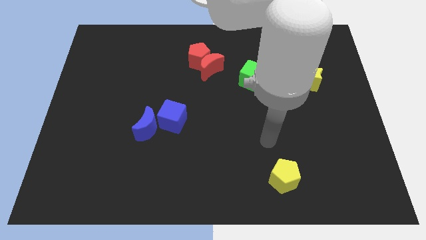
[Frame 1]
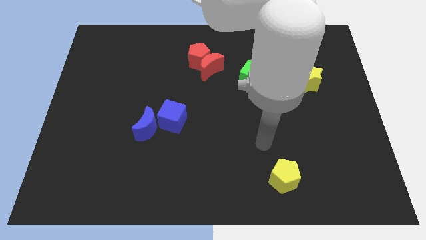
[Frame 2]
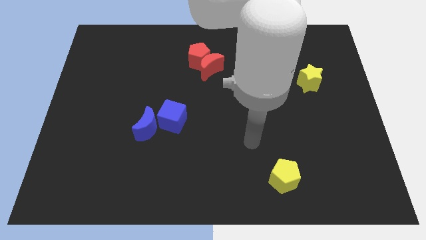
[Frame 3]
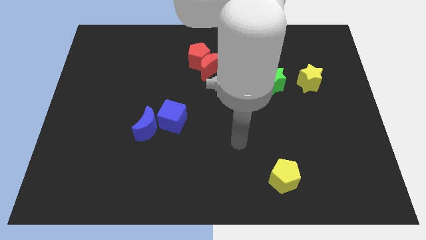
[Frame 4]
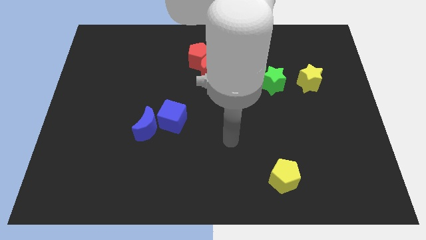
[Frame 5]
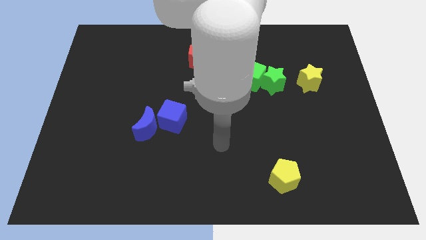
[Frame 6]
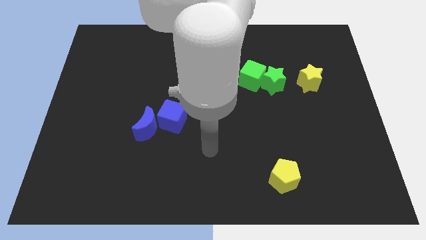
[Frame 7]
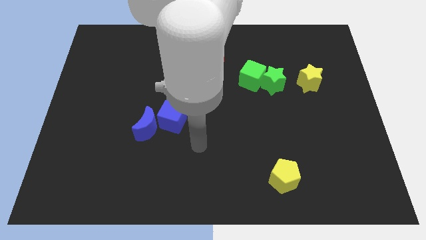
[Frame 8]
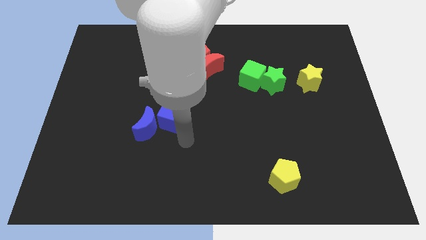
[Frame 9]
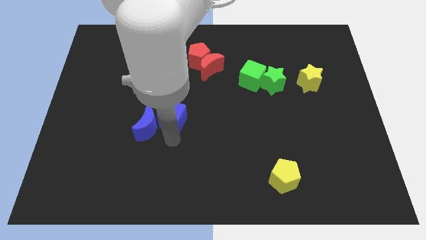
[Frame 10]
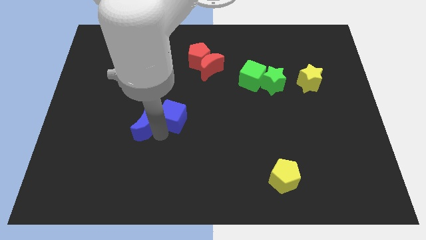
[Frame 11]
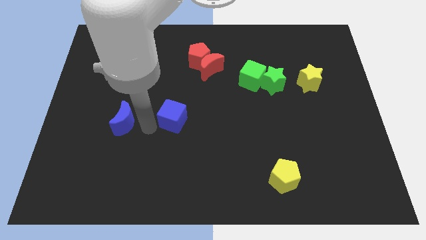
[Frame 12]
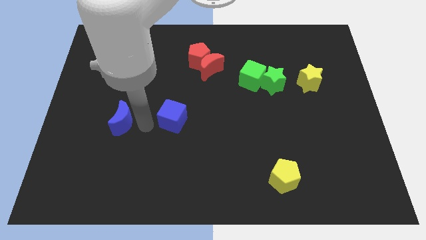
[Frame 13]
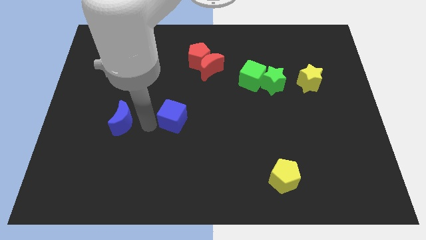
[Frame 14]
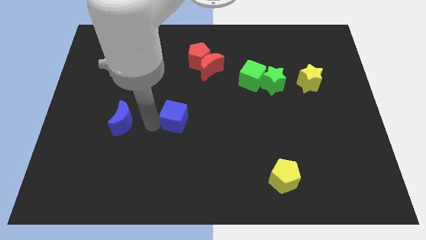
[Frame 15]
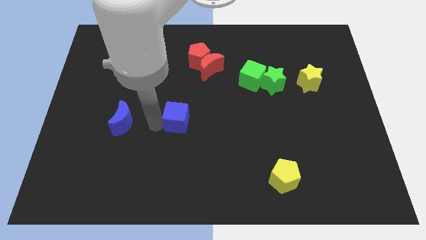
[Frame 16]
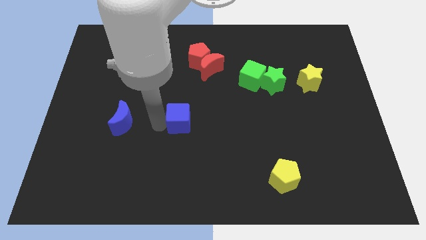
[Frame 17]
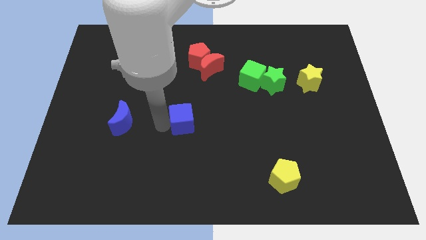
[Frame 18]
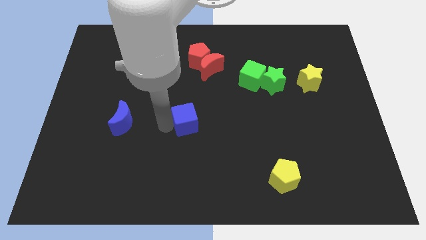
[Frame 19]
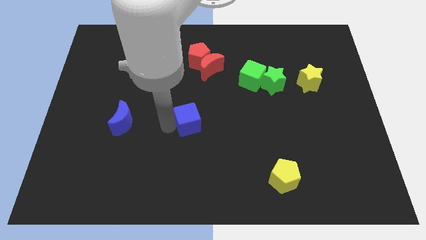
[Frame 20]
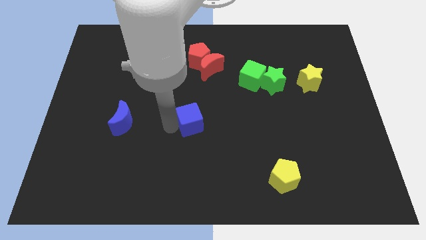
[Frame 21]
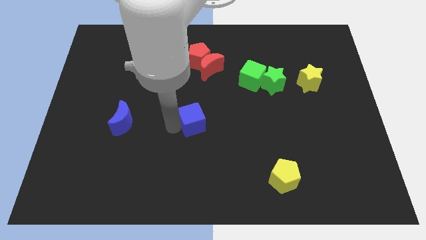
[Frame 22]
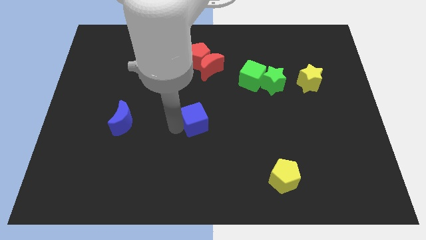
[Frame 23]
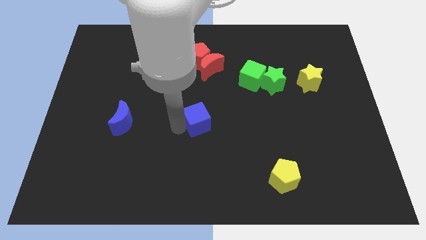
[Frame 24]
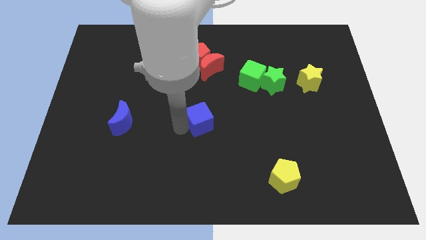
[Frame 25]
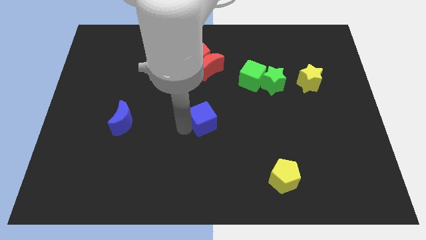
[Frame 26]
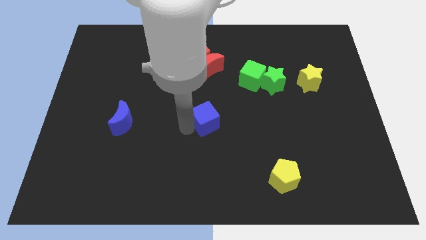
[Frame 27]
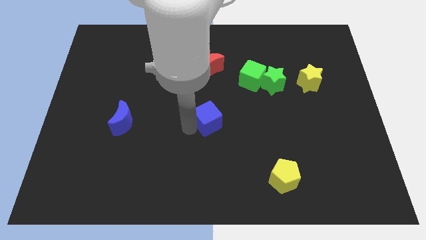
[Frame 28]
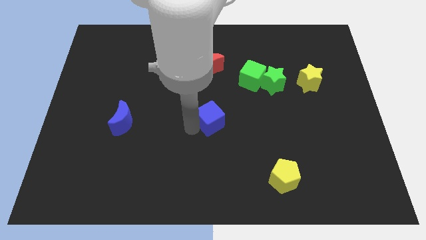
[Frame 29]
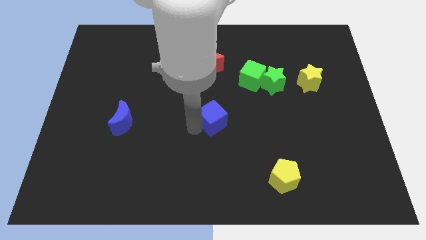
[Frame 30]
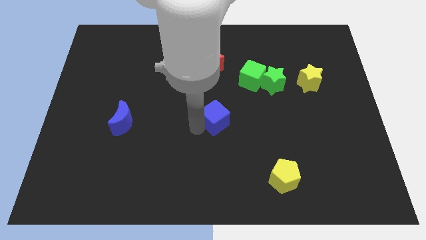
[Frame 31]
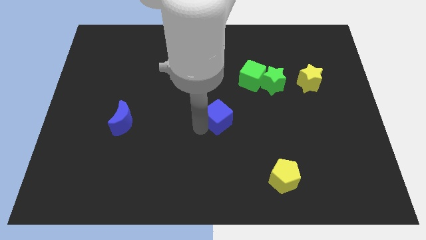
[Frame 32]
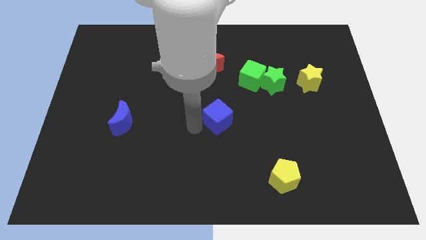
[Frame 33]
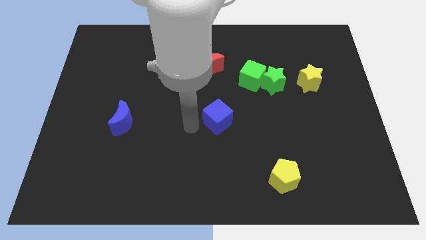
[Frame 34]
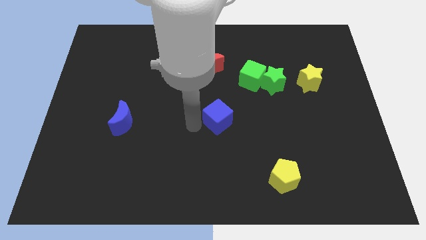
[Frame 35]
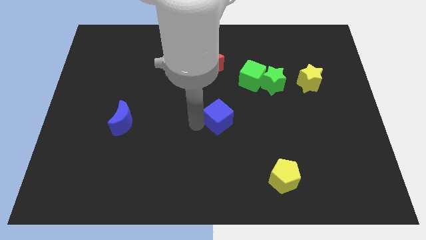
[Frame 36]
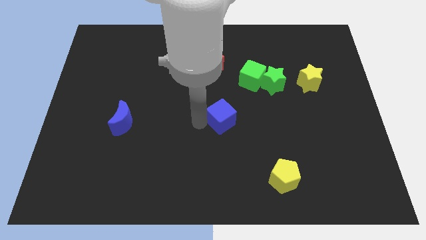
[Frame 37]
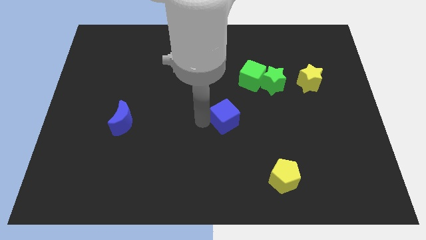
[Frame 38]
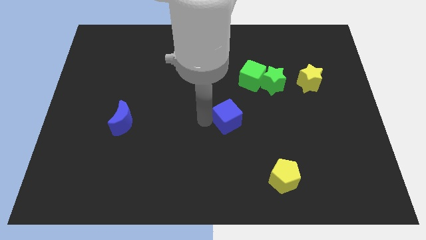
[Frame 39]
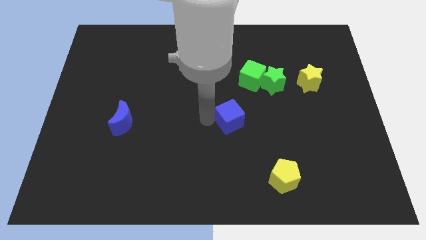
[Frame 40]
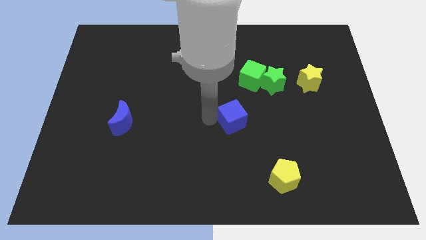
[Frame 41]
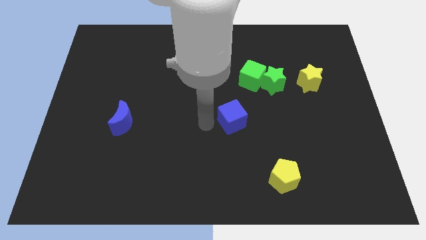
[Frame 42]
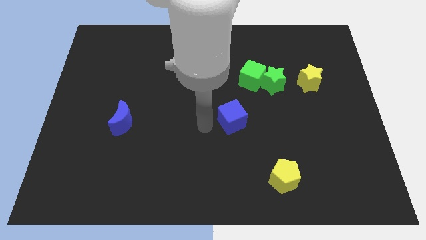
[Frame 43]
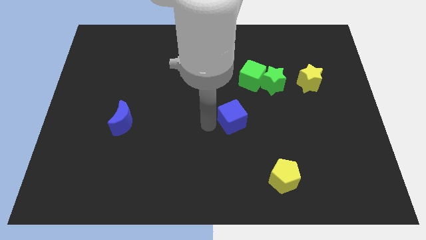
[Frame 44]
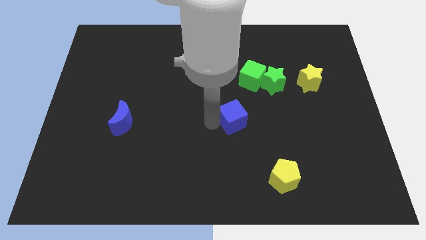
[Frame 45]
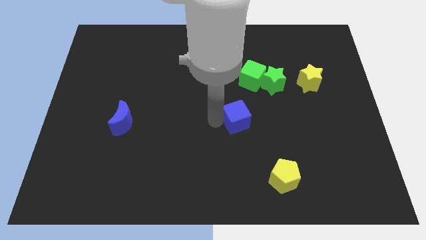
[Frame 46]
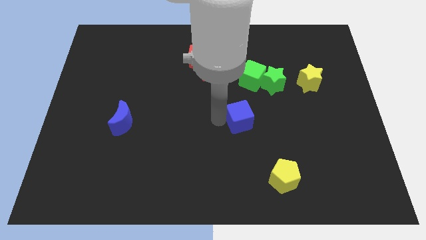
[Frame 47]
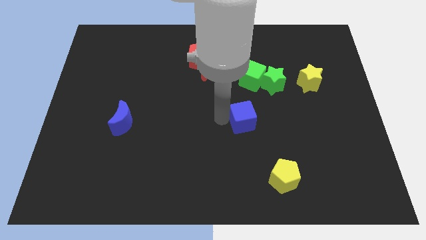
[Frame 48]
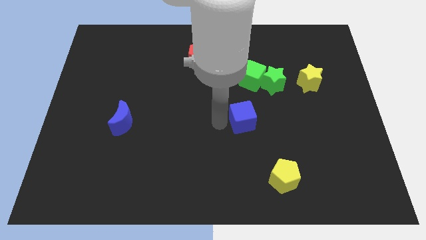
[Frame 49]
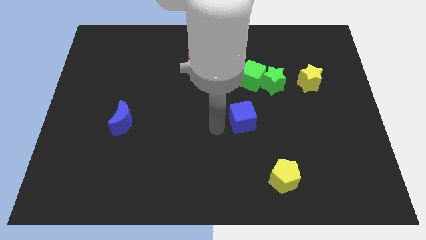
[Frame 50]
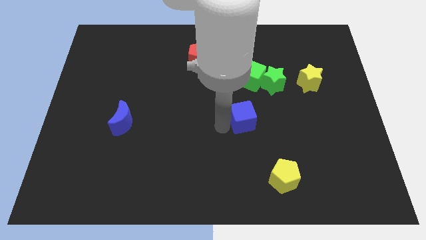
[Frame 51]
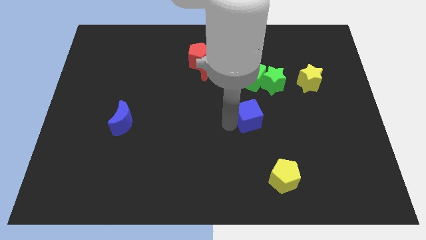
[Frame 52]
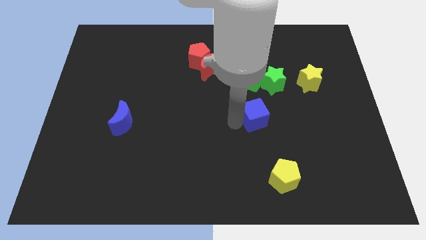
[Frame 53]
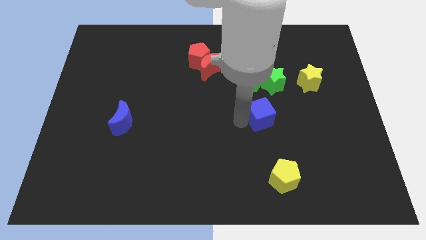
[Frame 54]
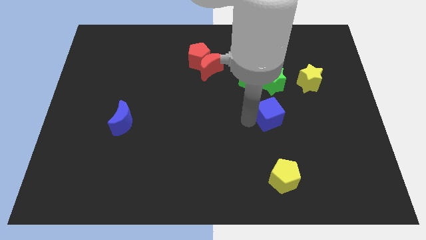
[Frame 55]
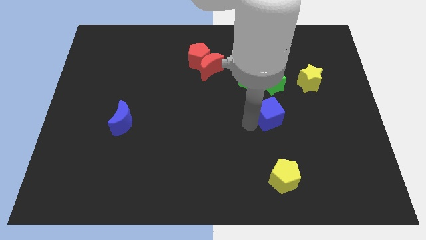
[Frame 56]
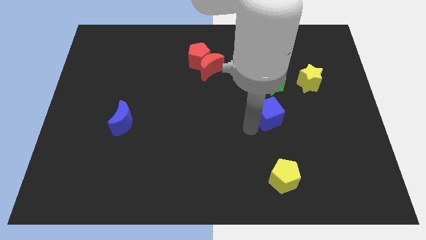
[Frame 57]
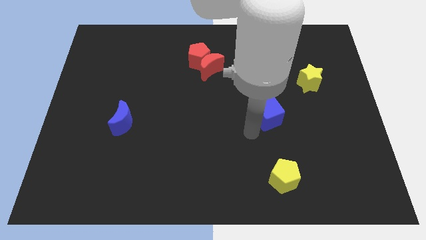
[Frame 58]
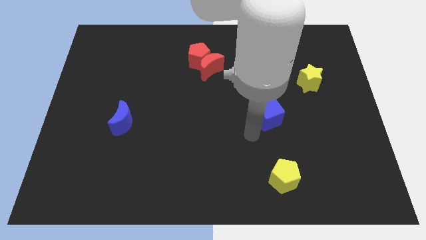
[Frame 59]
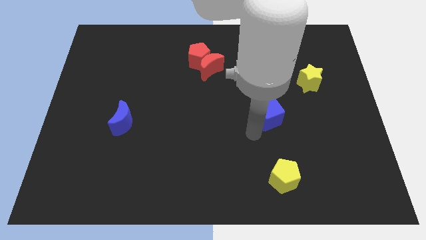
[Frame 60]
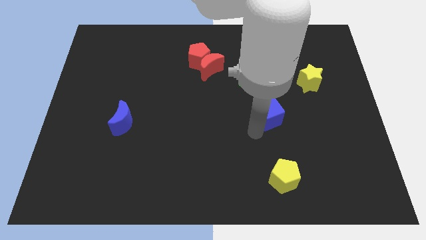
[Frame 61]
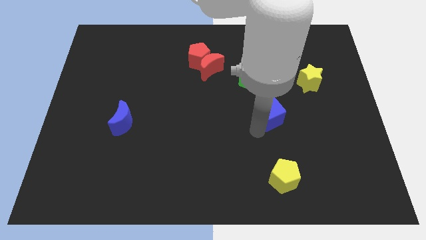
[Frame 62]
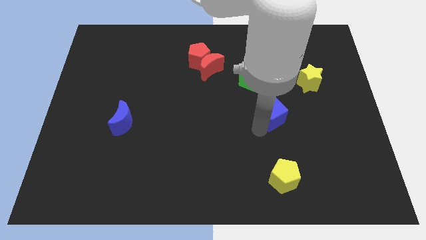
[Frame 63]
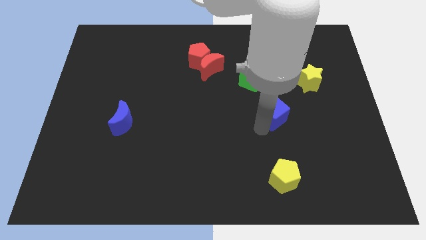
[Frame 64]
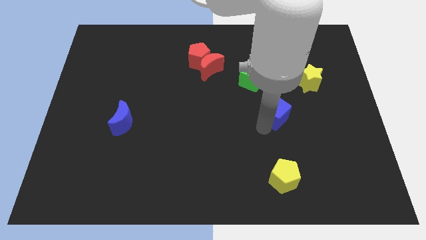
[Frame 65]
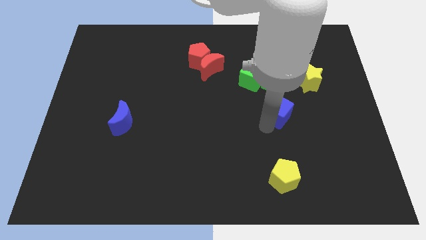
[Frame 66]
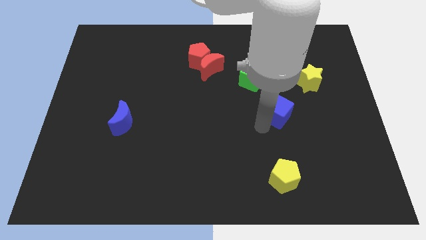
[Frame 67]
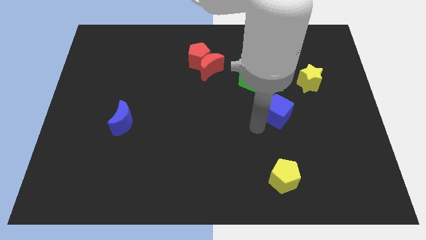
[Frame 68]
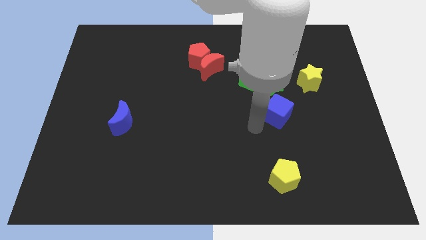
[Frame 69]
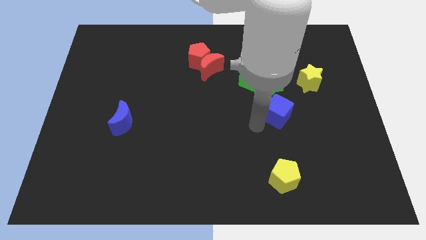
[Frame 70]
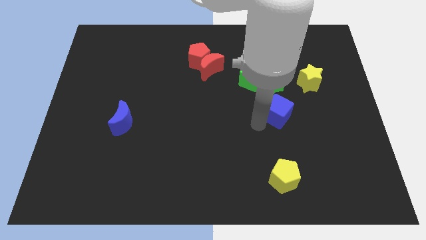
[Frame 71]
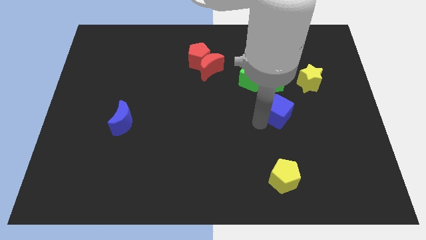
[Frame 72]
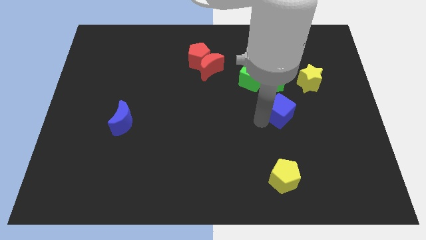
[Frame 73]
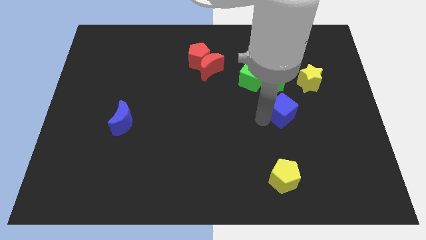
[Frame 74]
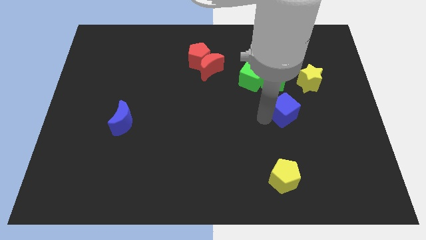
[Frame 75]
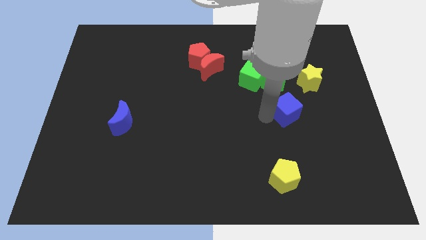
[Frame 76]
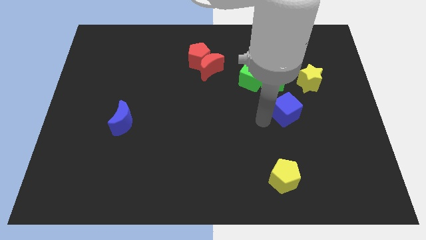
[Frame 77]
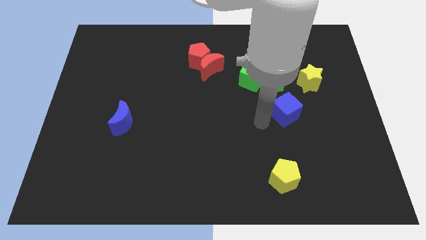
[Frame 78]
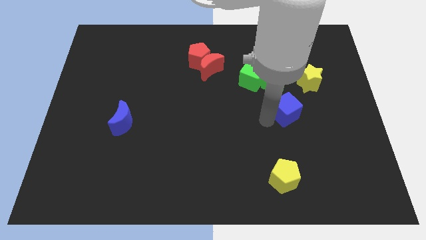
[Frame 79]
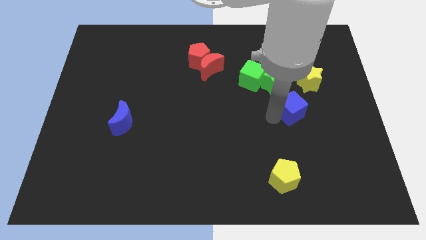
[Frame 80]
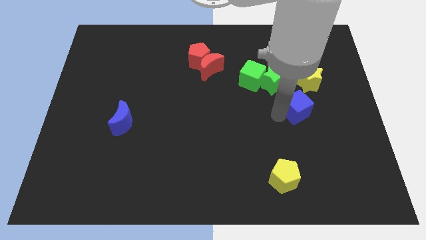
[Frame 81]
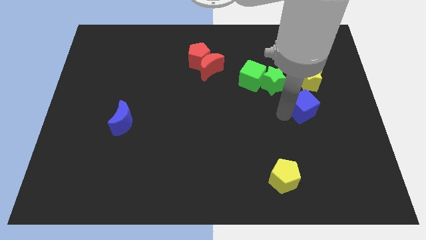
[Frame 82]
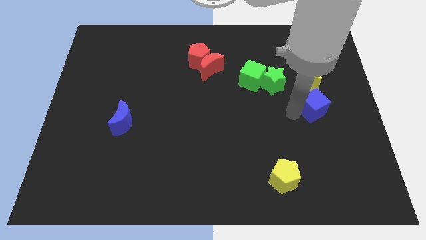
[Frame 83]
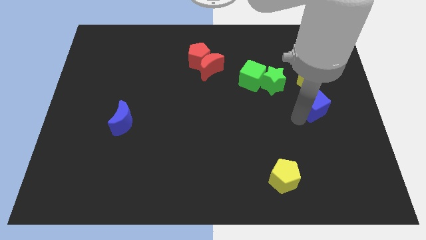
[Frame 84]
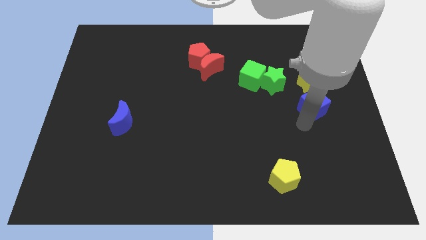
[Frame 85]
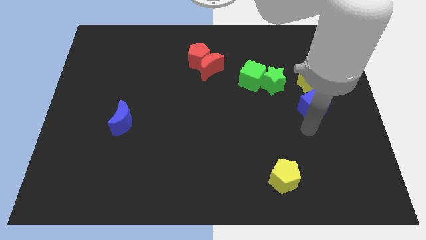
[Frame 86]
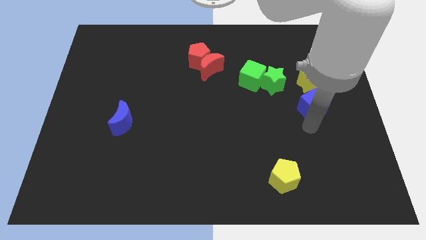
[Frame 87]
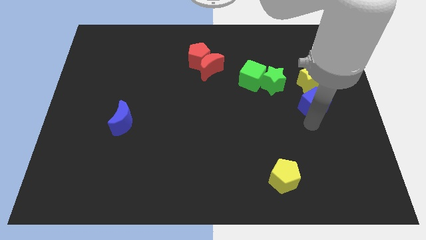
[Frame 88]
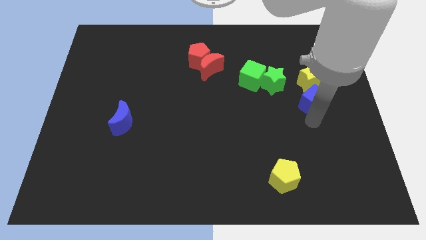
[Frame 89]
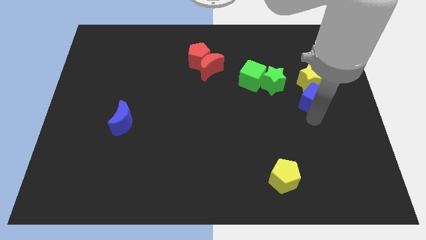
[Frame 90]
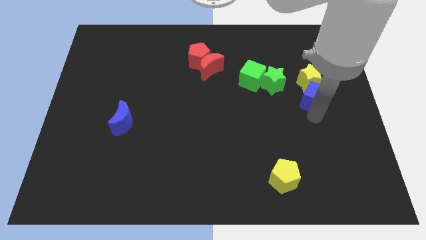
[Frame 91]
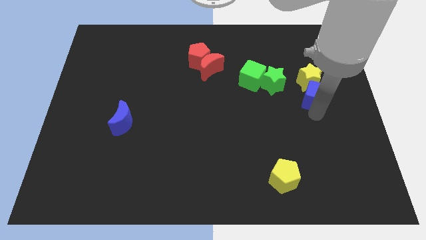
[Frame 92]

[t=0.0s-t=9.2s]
put the blue cube to the right of the green star
